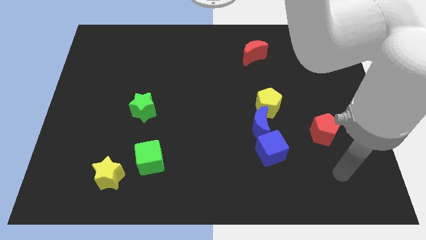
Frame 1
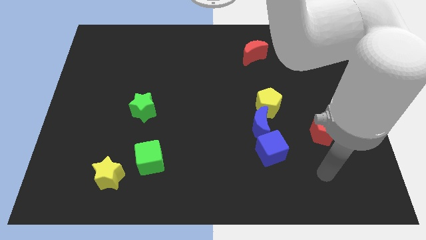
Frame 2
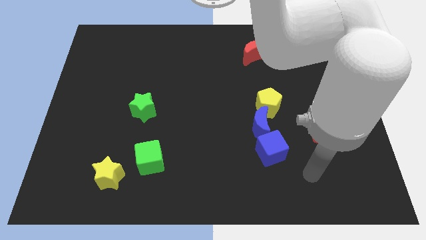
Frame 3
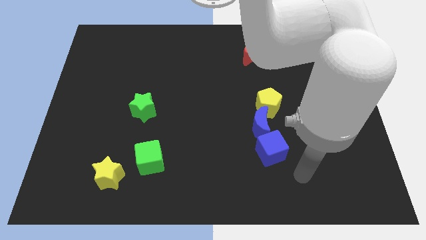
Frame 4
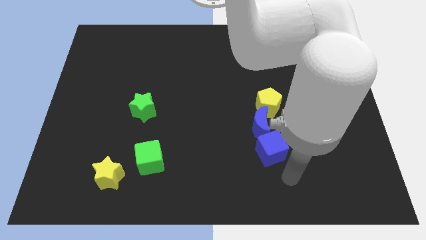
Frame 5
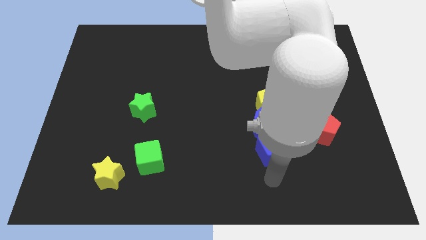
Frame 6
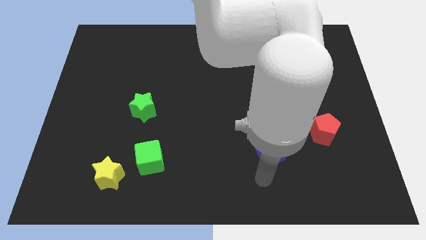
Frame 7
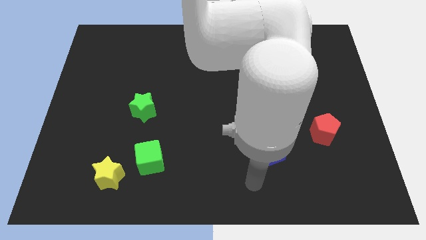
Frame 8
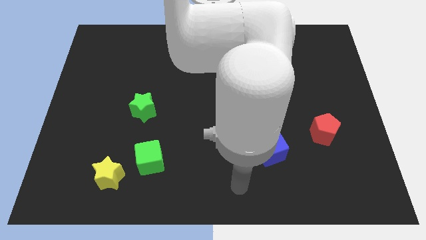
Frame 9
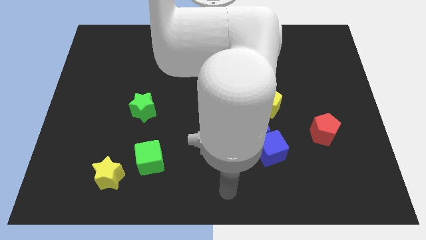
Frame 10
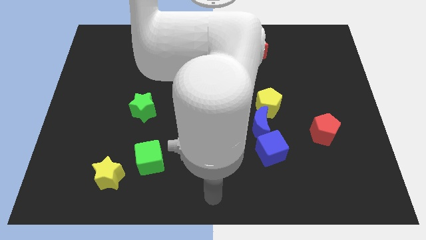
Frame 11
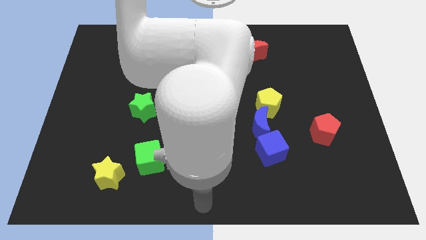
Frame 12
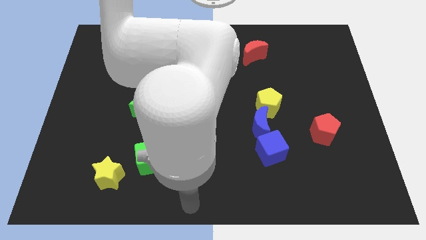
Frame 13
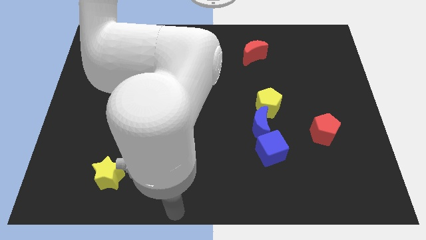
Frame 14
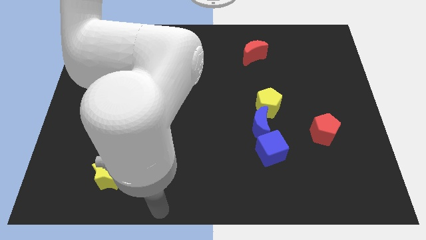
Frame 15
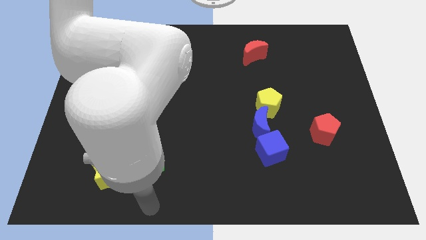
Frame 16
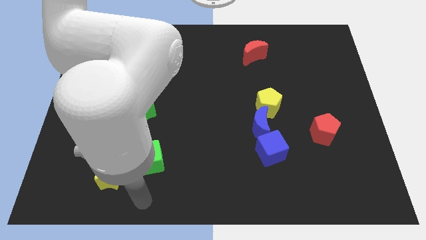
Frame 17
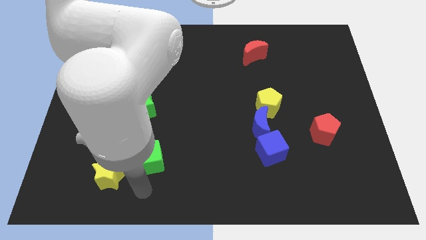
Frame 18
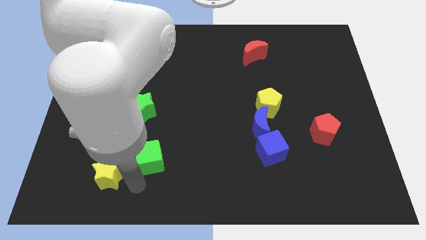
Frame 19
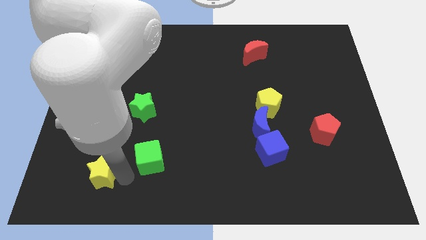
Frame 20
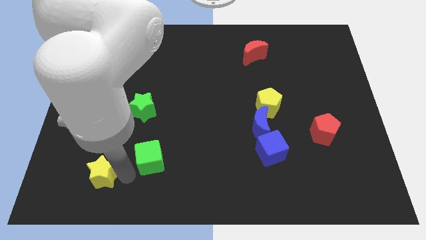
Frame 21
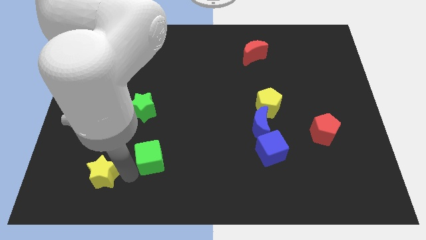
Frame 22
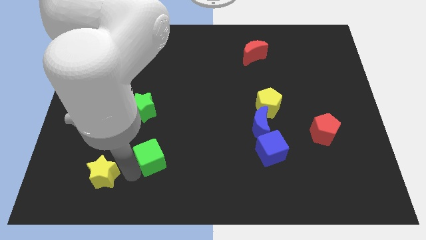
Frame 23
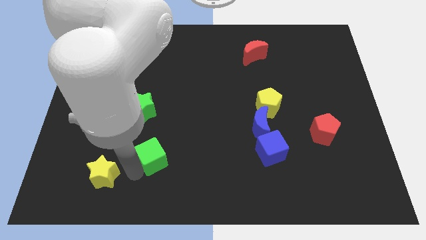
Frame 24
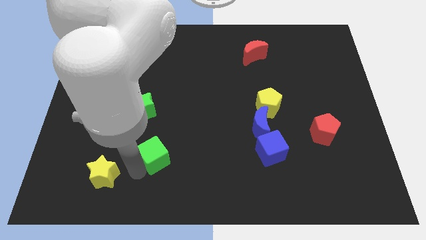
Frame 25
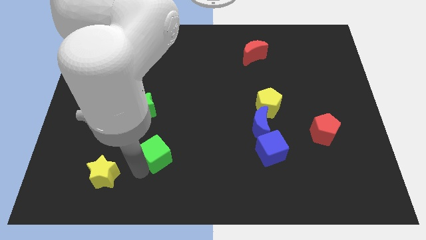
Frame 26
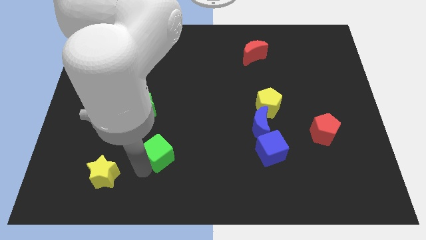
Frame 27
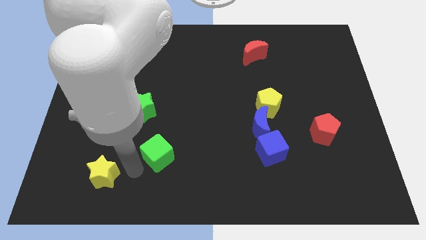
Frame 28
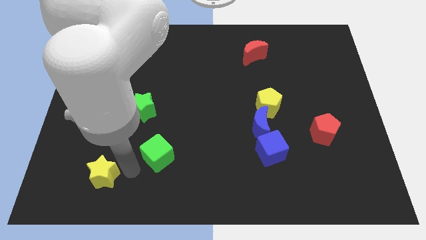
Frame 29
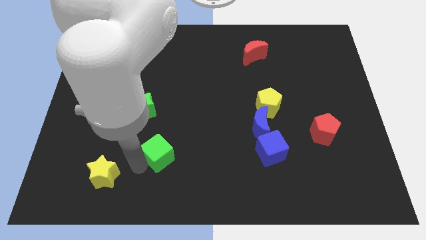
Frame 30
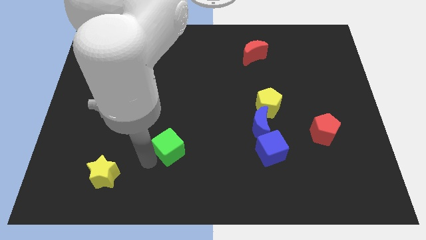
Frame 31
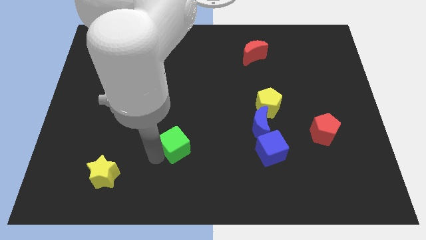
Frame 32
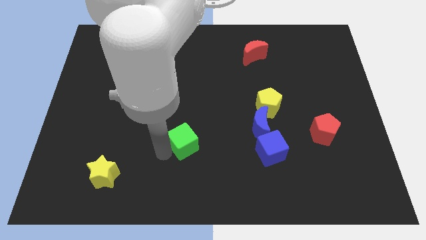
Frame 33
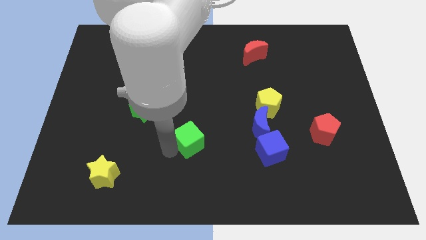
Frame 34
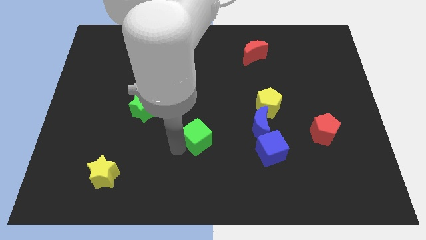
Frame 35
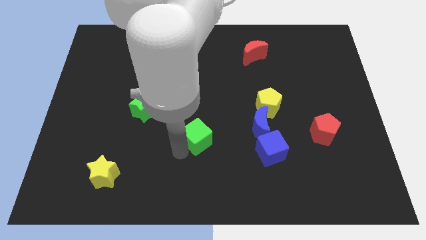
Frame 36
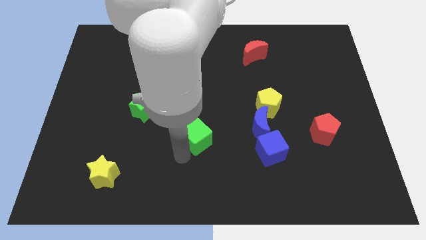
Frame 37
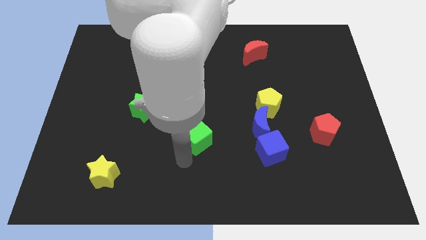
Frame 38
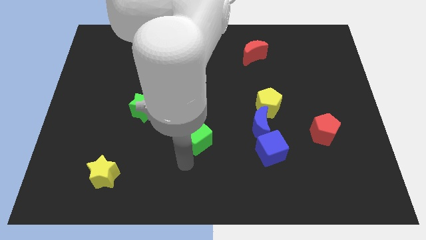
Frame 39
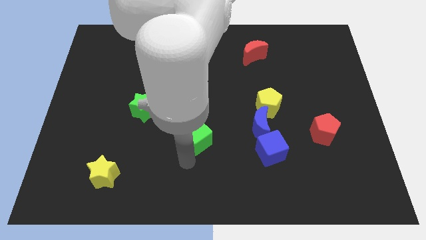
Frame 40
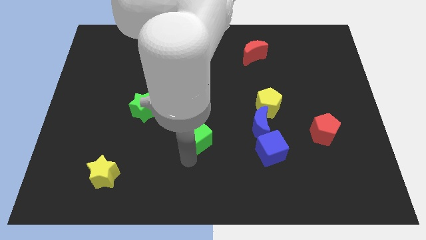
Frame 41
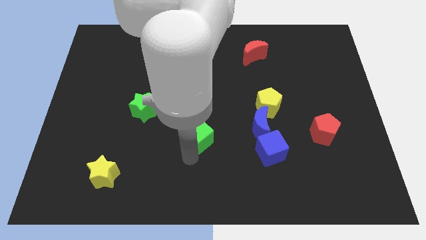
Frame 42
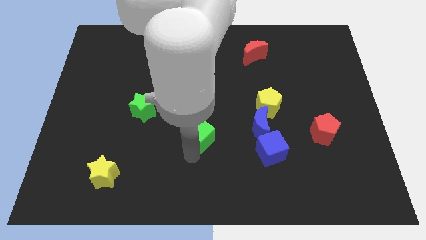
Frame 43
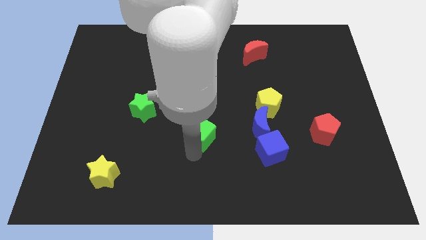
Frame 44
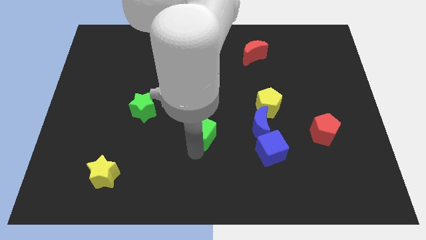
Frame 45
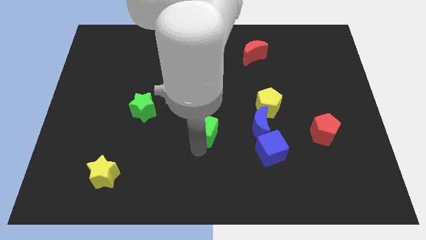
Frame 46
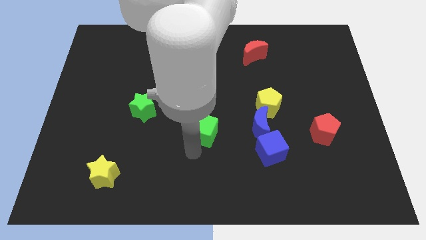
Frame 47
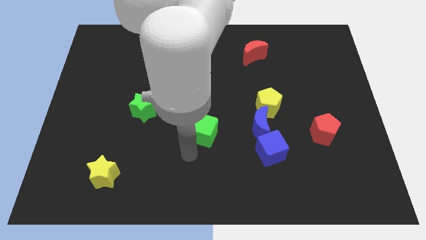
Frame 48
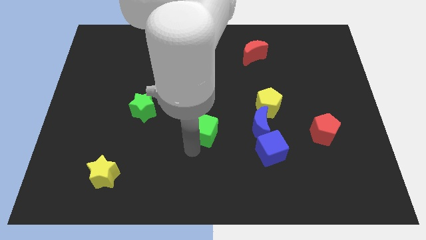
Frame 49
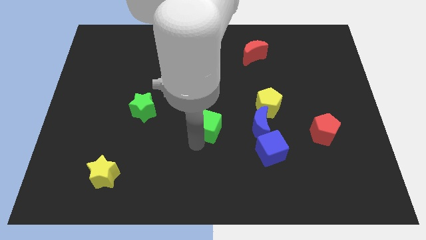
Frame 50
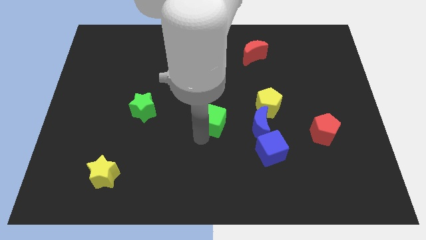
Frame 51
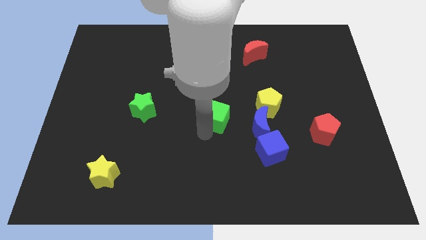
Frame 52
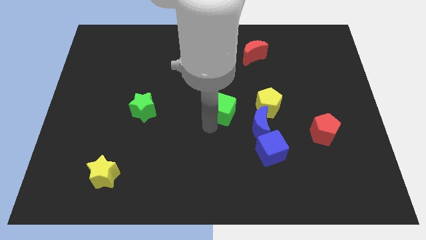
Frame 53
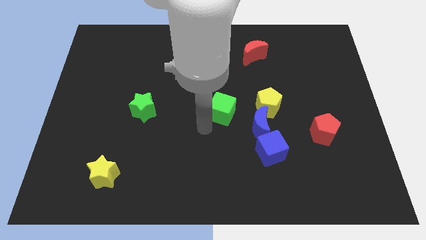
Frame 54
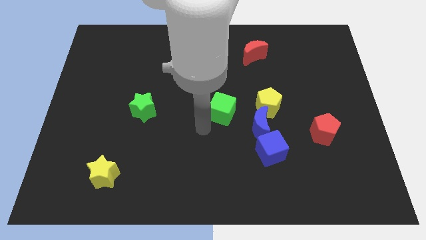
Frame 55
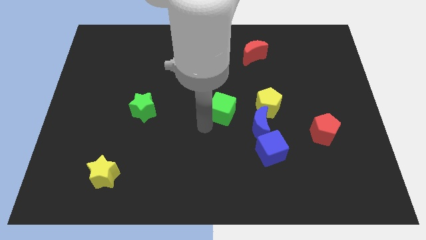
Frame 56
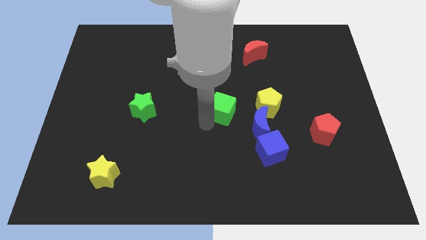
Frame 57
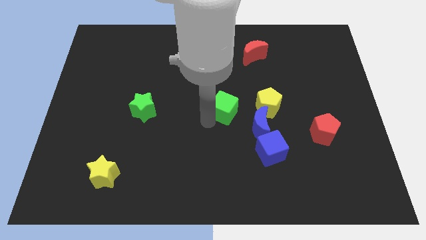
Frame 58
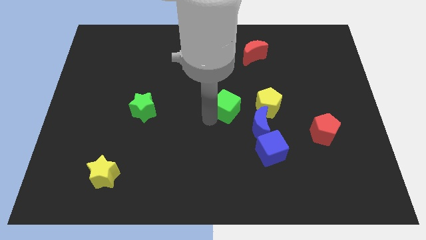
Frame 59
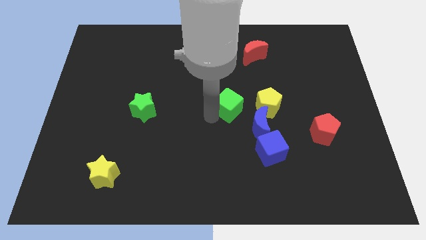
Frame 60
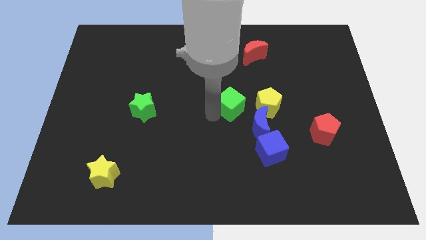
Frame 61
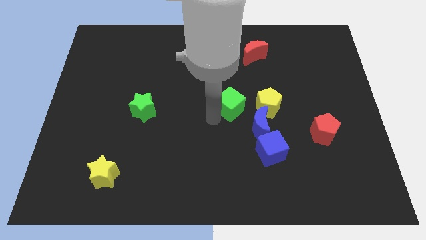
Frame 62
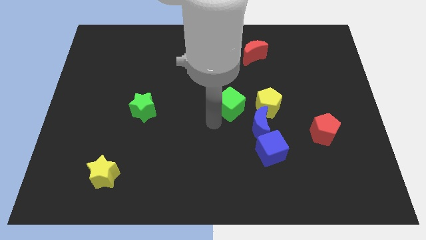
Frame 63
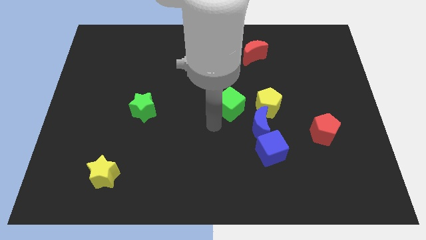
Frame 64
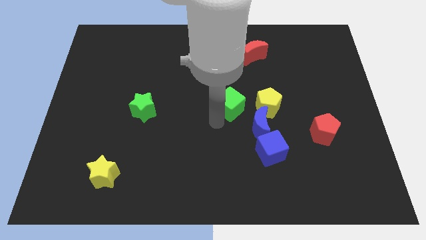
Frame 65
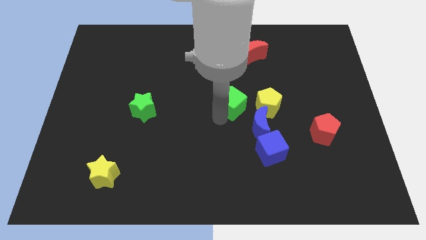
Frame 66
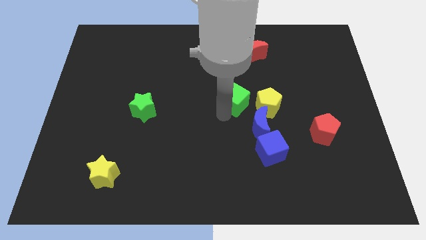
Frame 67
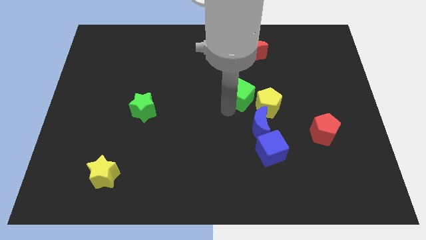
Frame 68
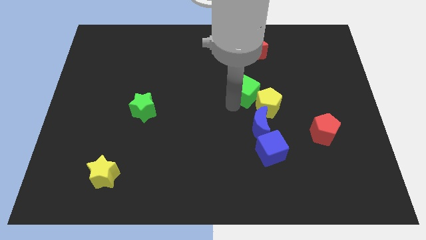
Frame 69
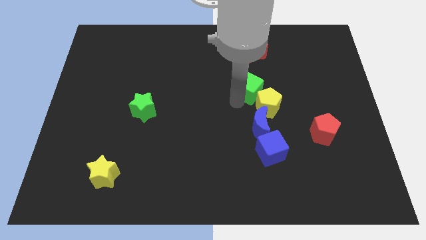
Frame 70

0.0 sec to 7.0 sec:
push the green cube above the yellow pentagon

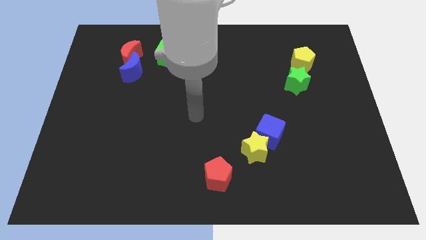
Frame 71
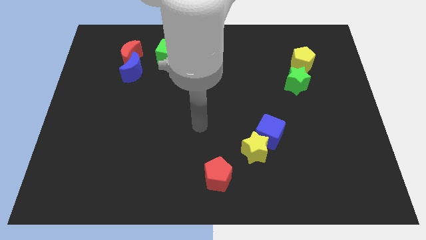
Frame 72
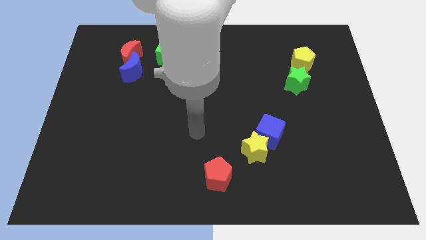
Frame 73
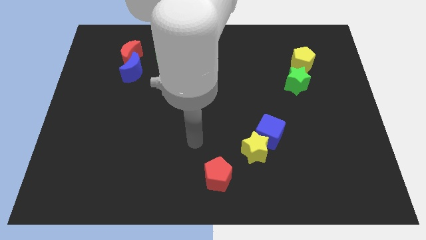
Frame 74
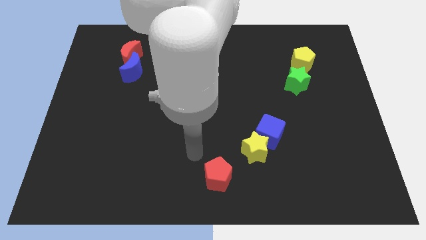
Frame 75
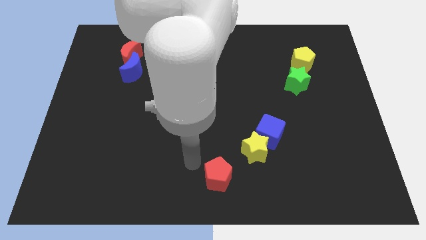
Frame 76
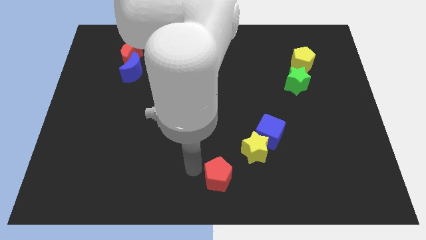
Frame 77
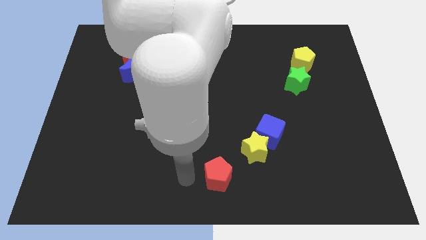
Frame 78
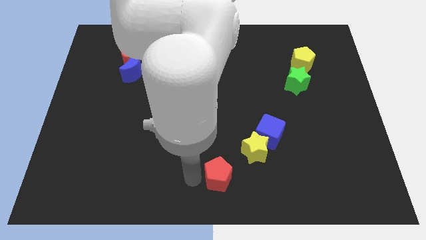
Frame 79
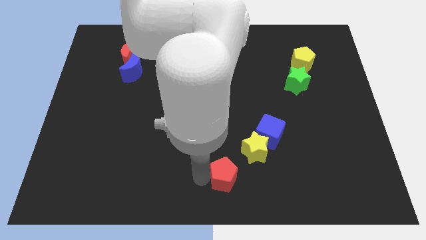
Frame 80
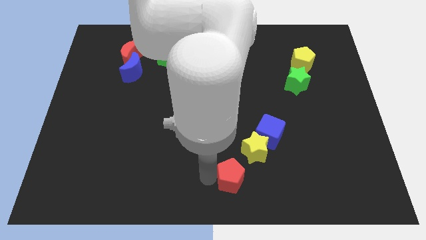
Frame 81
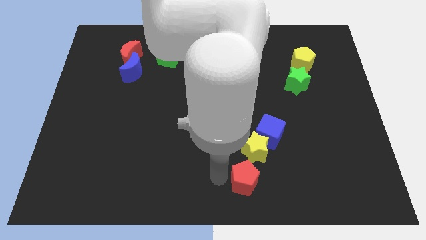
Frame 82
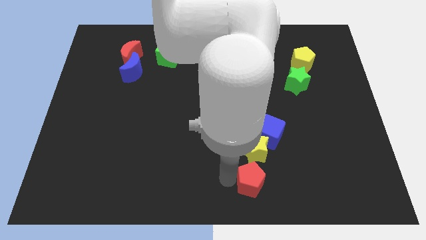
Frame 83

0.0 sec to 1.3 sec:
slide the red pentagon to the bottom of the blue cube
